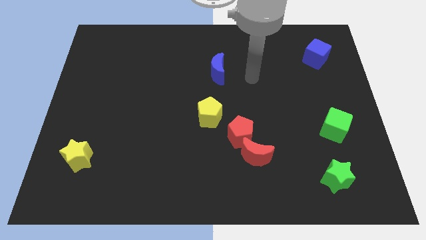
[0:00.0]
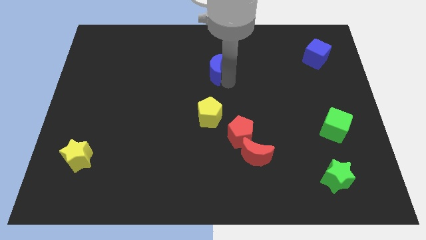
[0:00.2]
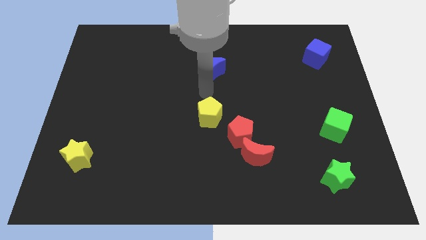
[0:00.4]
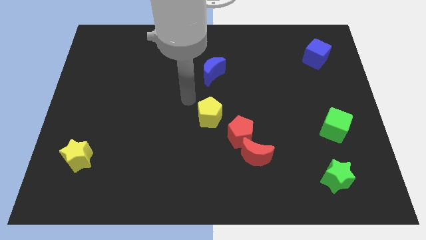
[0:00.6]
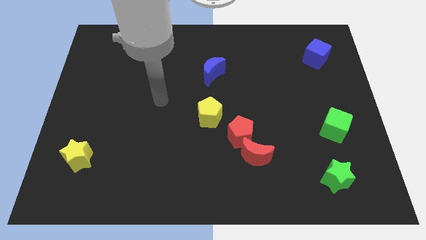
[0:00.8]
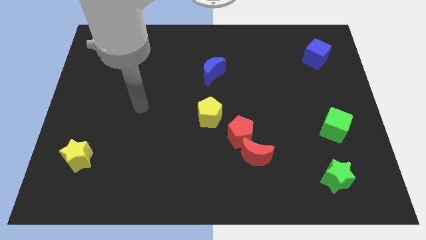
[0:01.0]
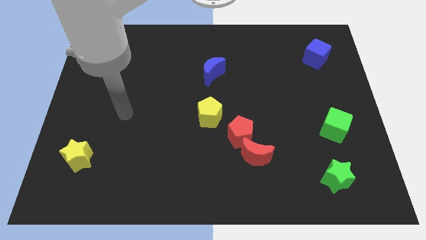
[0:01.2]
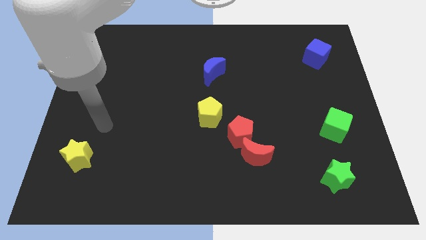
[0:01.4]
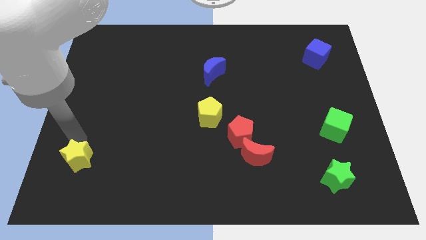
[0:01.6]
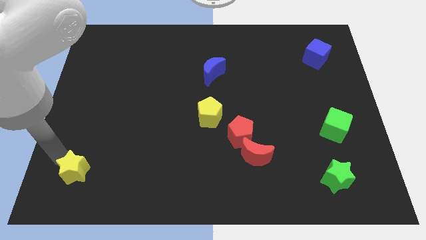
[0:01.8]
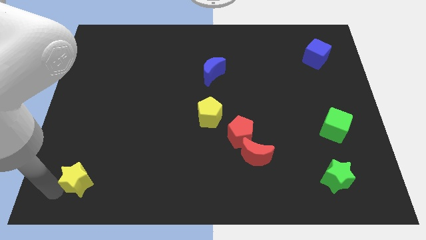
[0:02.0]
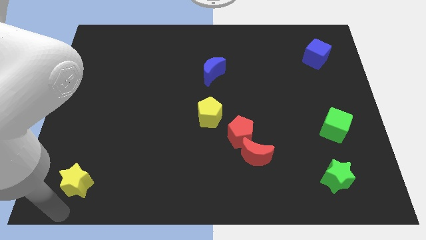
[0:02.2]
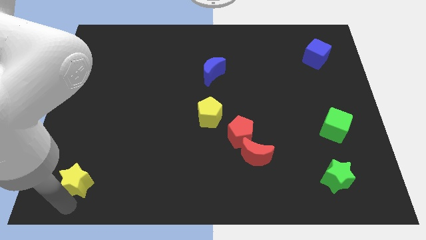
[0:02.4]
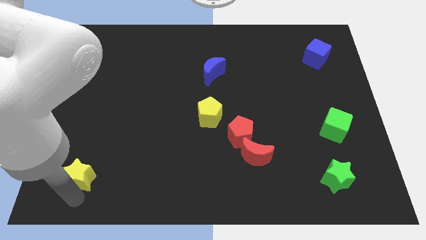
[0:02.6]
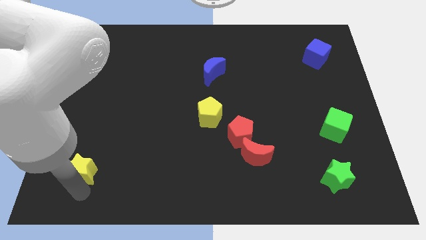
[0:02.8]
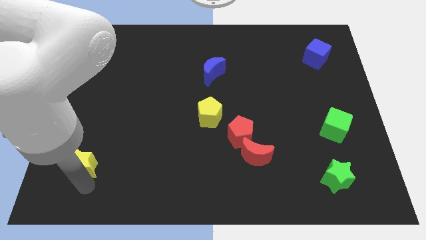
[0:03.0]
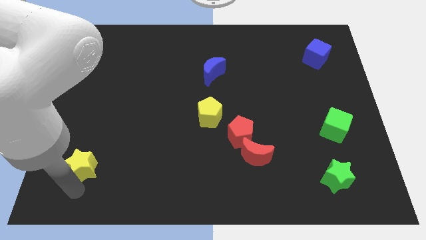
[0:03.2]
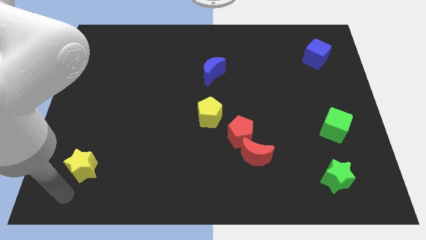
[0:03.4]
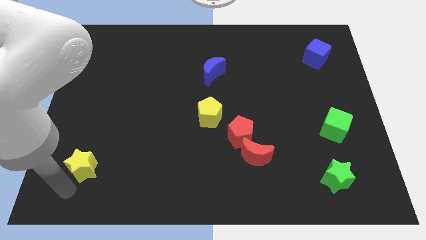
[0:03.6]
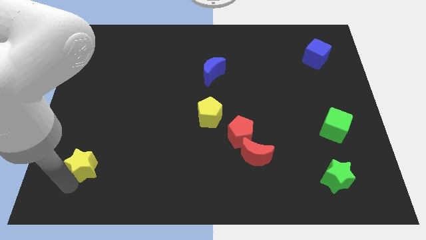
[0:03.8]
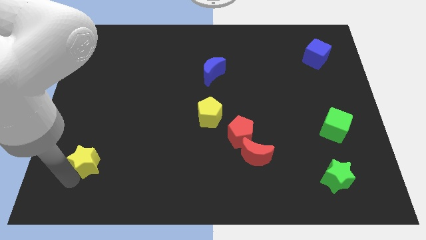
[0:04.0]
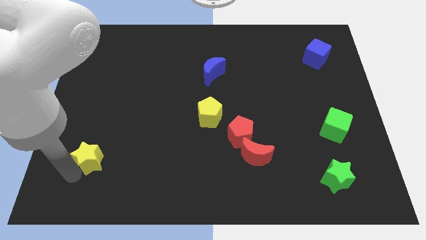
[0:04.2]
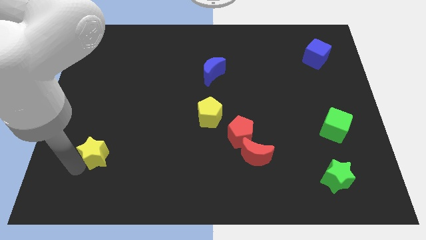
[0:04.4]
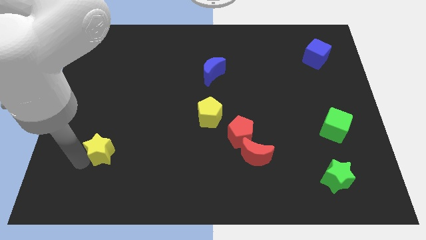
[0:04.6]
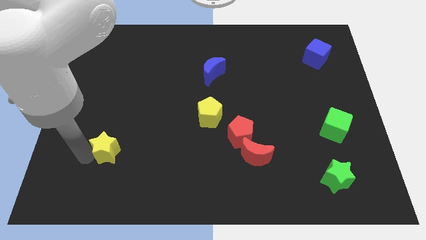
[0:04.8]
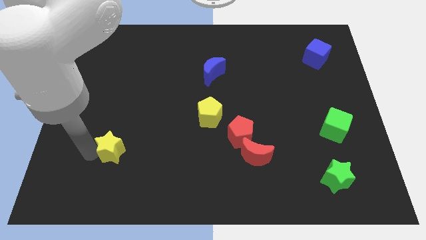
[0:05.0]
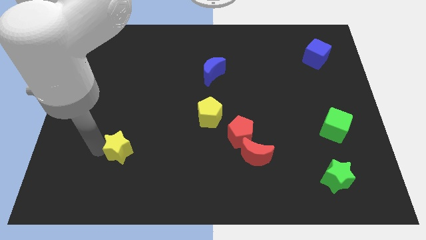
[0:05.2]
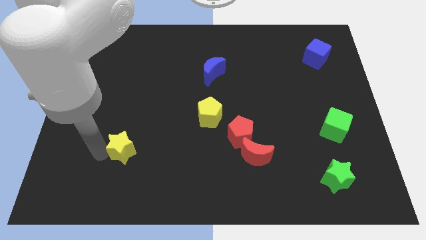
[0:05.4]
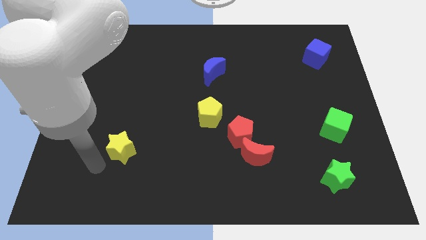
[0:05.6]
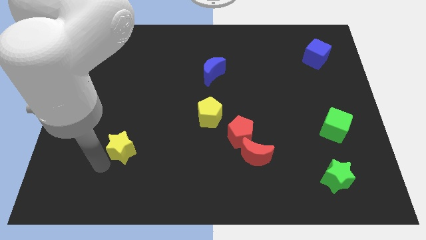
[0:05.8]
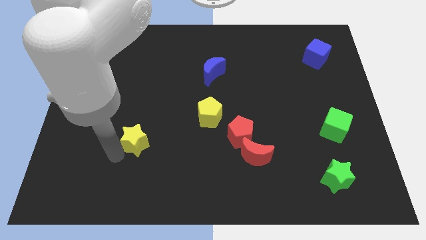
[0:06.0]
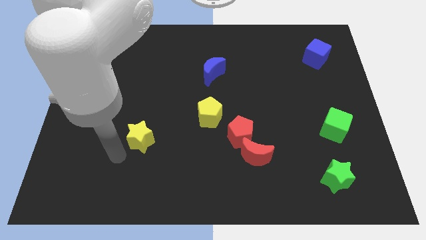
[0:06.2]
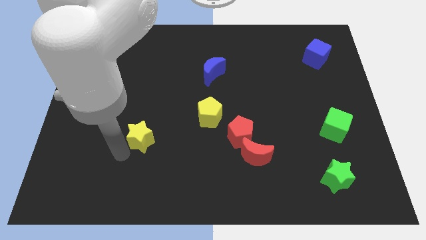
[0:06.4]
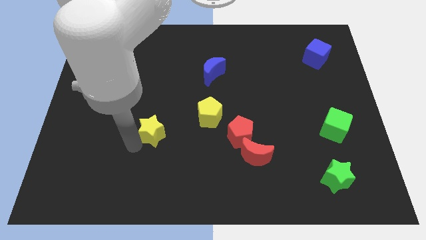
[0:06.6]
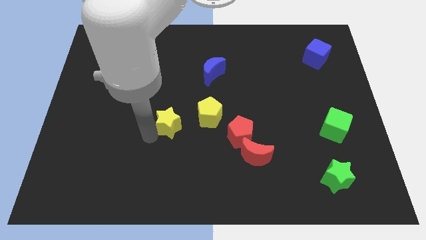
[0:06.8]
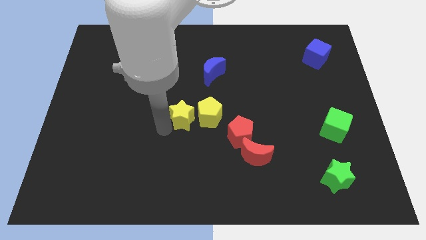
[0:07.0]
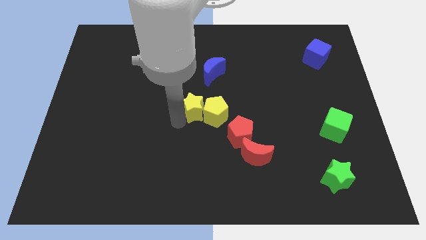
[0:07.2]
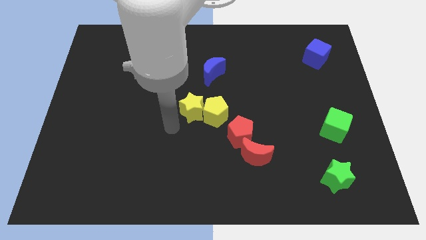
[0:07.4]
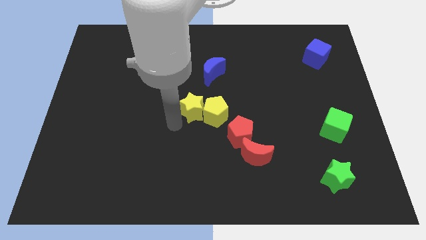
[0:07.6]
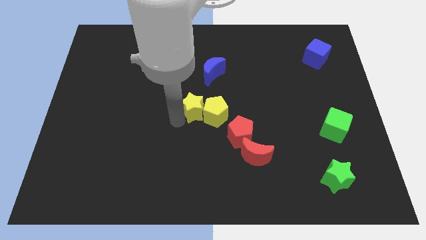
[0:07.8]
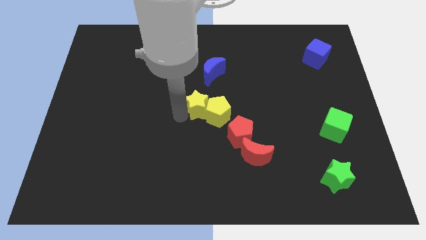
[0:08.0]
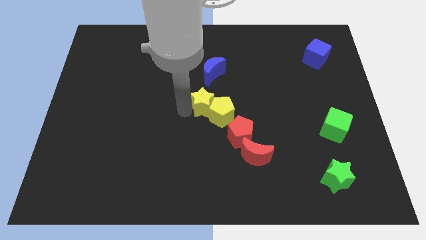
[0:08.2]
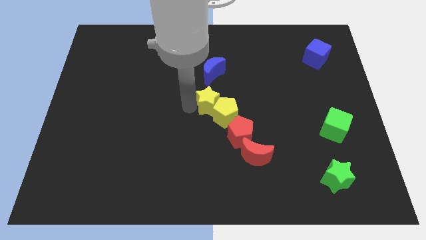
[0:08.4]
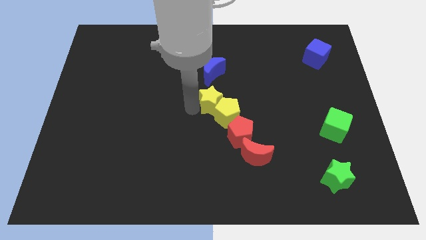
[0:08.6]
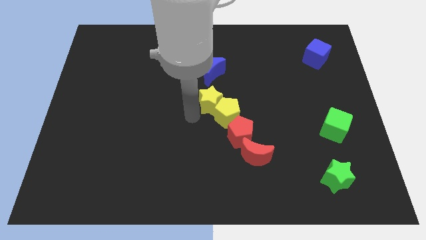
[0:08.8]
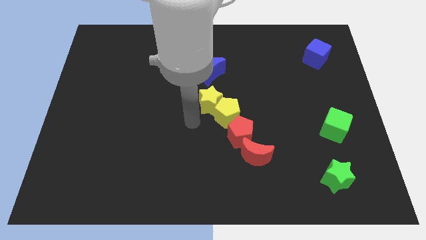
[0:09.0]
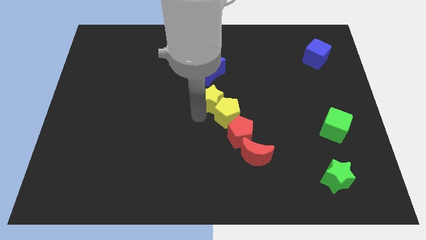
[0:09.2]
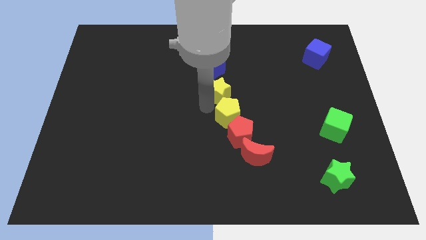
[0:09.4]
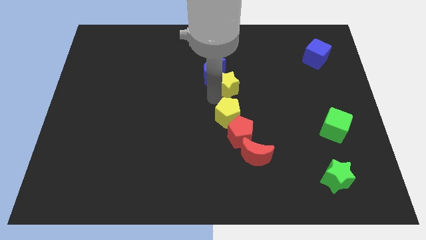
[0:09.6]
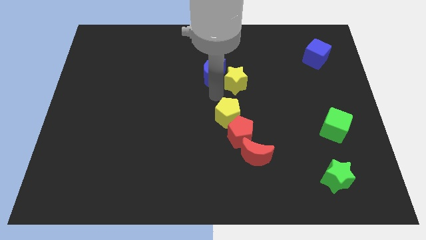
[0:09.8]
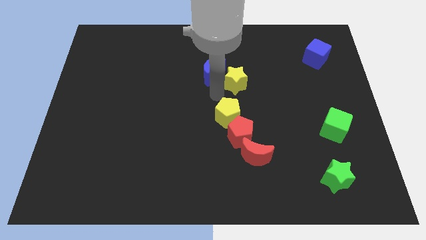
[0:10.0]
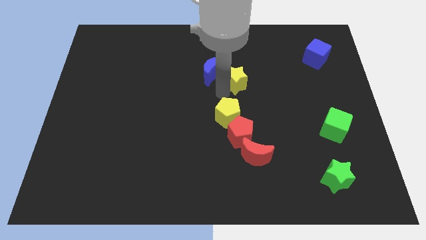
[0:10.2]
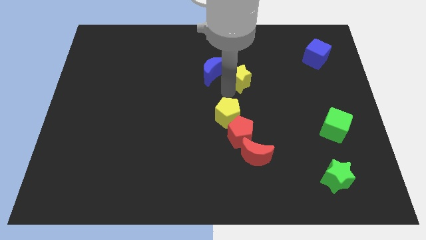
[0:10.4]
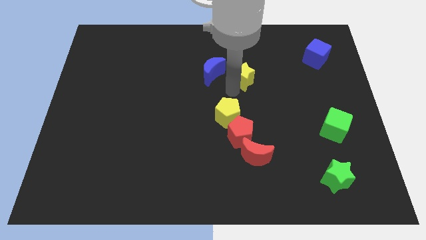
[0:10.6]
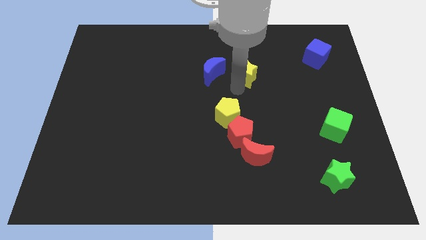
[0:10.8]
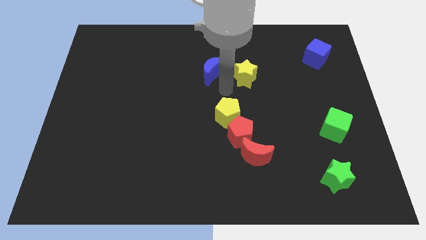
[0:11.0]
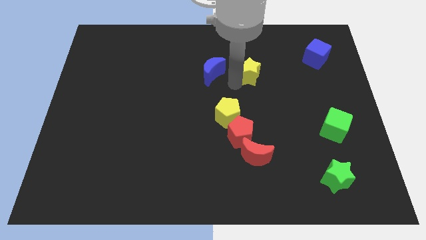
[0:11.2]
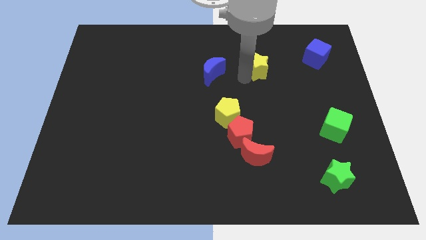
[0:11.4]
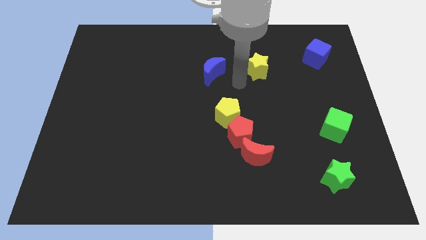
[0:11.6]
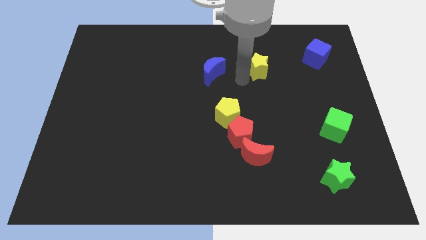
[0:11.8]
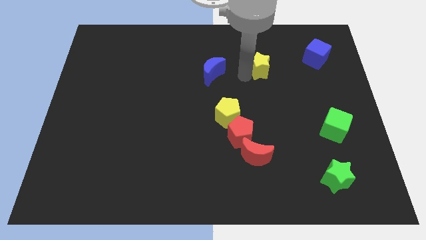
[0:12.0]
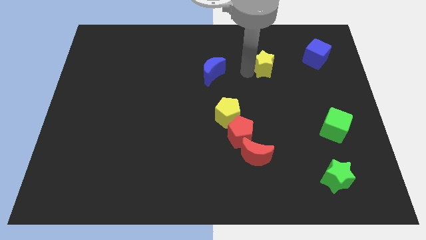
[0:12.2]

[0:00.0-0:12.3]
slide the yellow star to the left of the blue cube

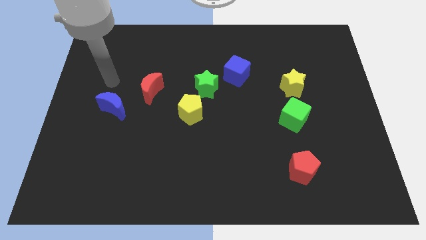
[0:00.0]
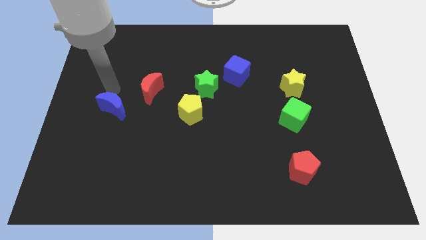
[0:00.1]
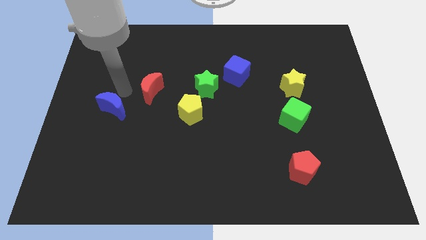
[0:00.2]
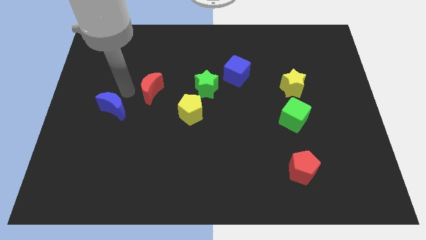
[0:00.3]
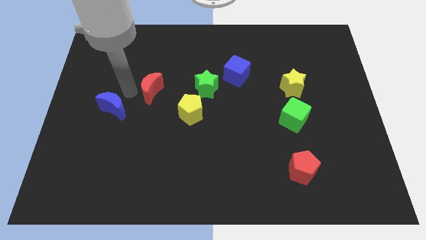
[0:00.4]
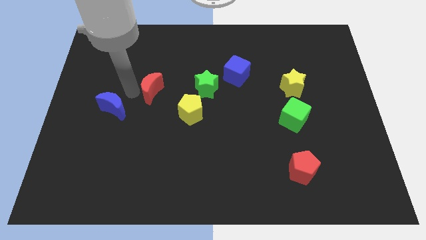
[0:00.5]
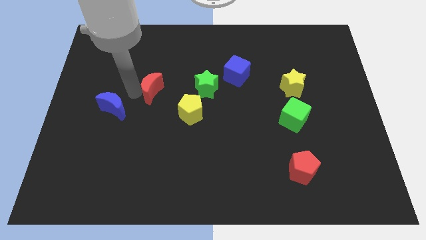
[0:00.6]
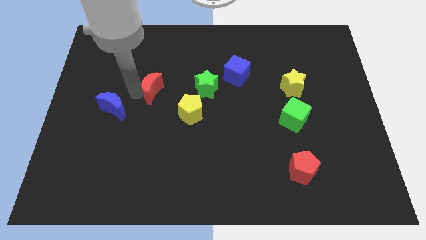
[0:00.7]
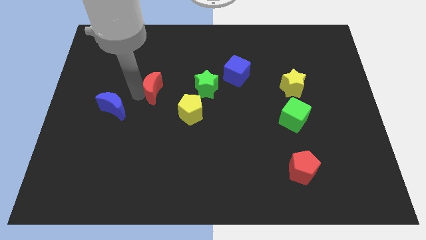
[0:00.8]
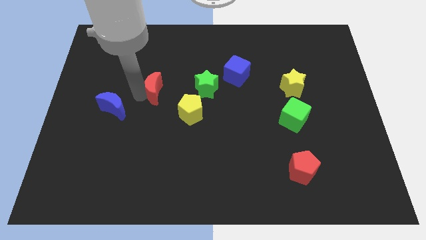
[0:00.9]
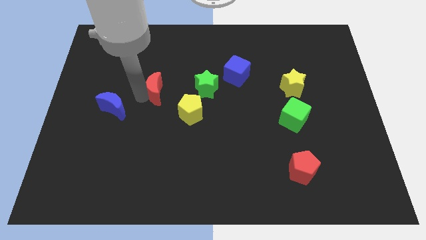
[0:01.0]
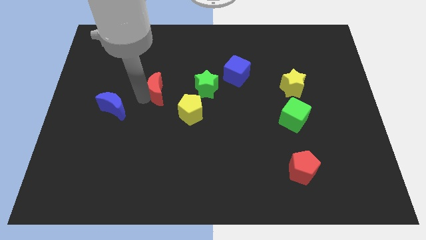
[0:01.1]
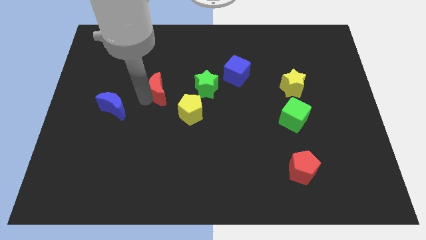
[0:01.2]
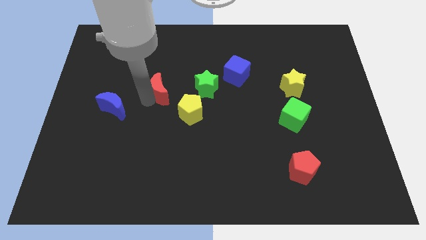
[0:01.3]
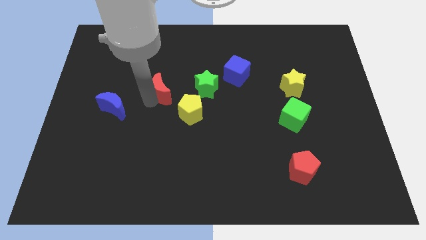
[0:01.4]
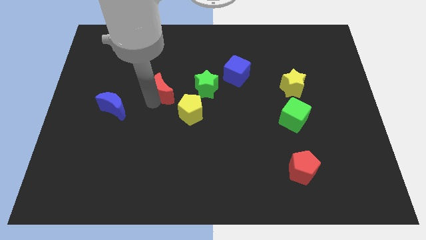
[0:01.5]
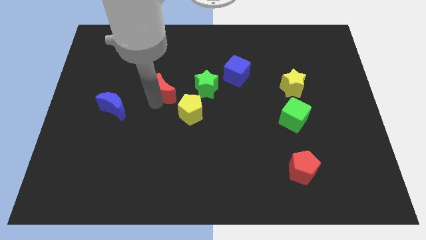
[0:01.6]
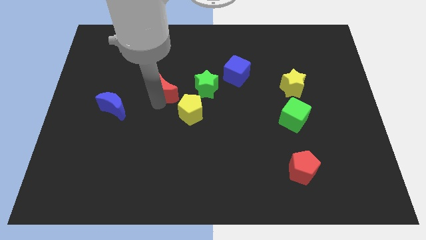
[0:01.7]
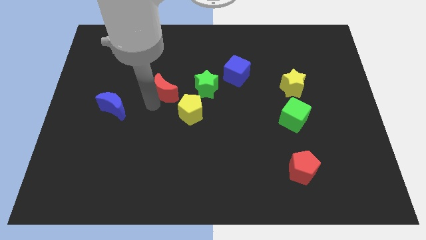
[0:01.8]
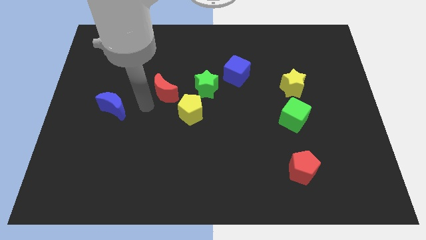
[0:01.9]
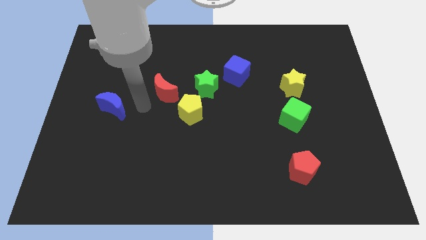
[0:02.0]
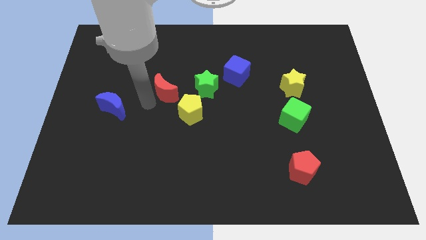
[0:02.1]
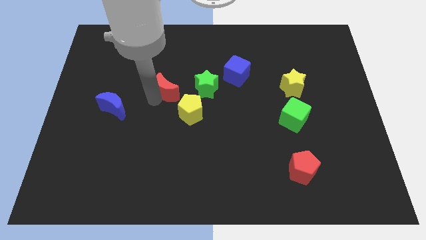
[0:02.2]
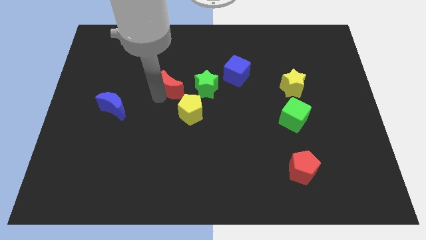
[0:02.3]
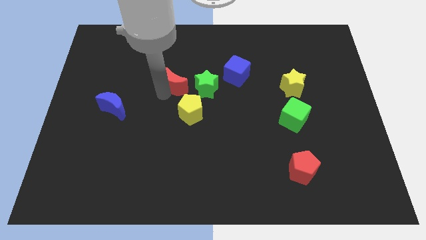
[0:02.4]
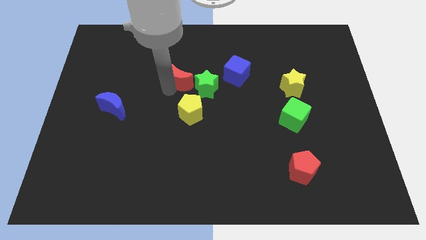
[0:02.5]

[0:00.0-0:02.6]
push the red moon left of the blue cube
